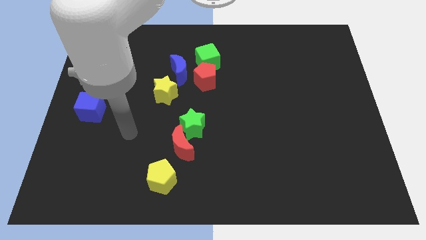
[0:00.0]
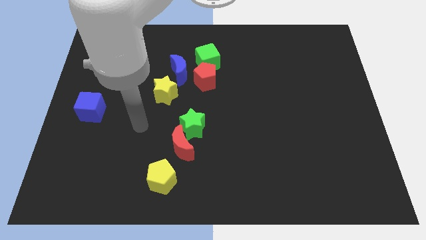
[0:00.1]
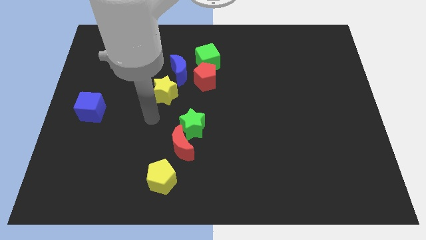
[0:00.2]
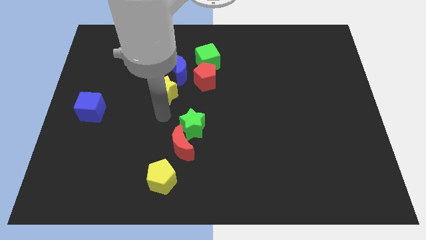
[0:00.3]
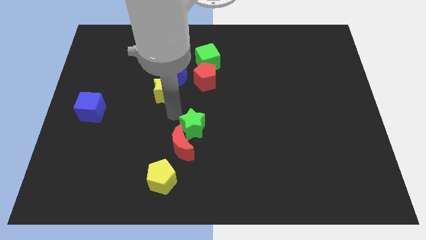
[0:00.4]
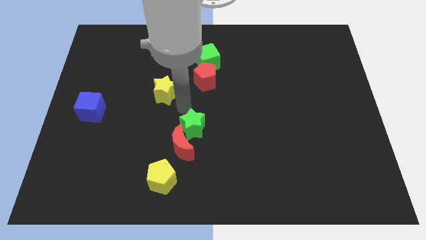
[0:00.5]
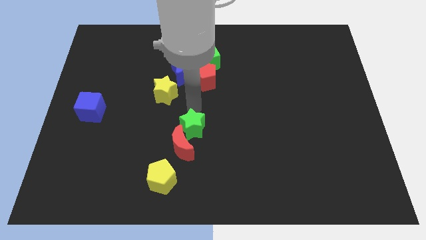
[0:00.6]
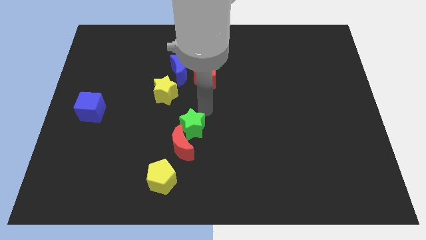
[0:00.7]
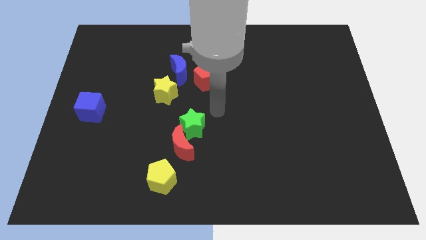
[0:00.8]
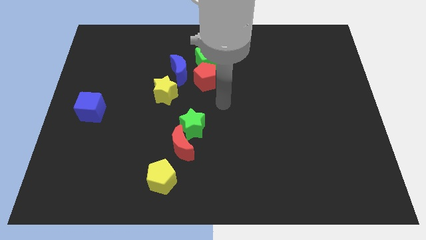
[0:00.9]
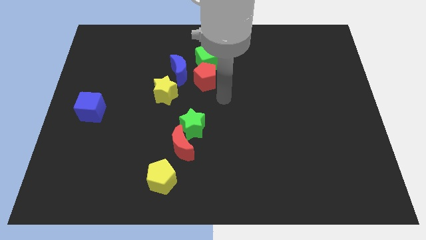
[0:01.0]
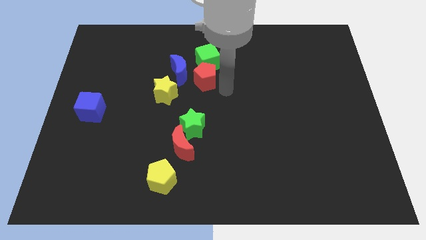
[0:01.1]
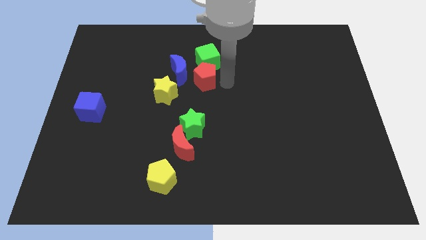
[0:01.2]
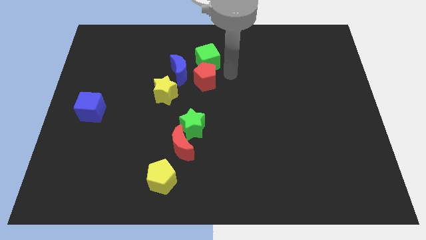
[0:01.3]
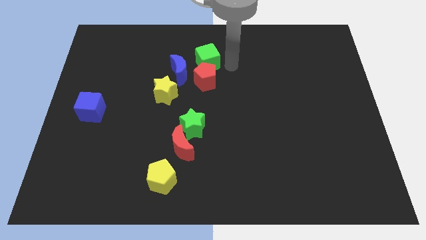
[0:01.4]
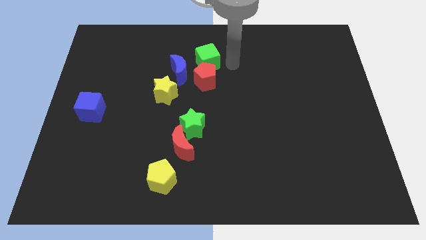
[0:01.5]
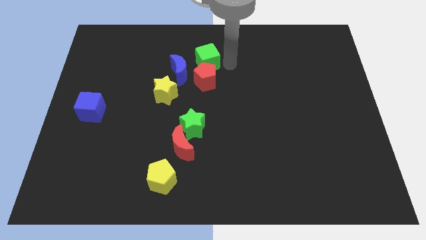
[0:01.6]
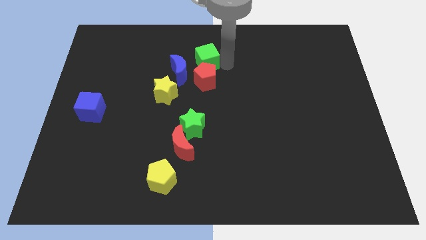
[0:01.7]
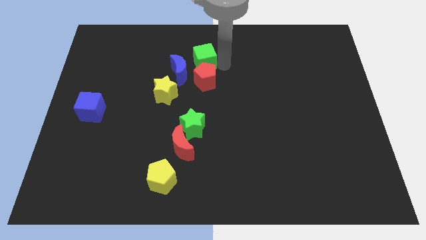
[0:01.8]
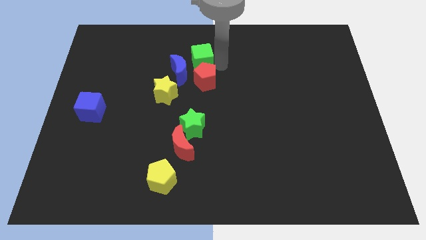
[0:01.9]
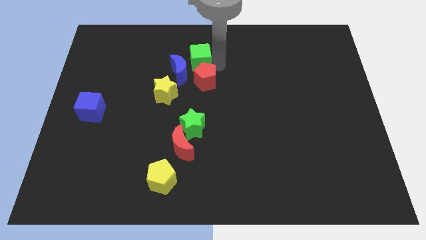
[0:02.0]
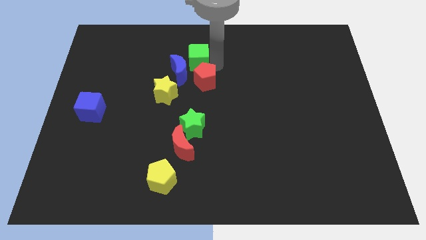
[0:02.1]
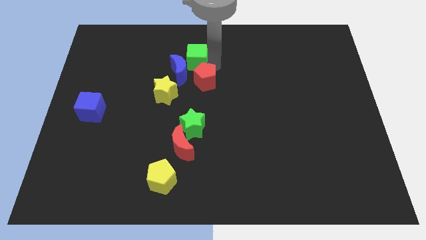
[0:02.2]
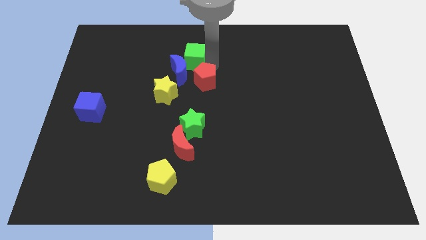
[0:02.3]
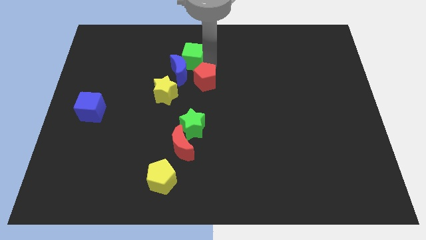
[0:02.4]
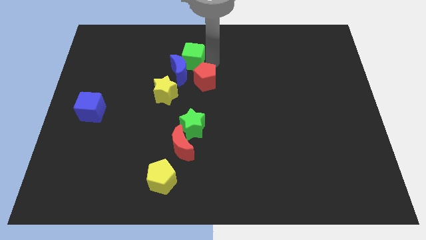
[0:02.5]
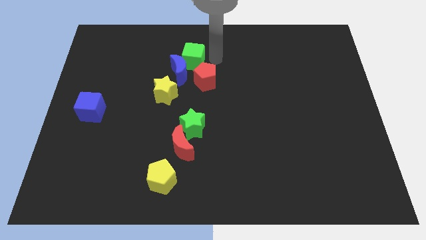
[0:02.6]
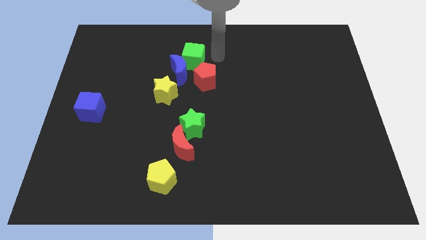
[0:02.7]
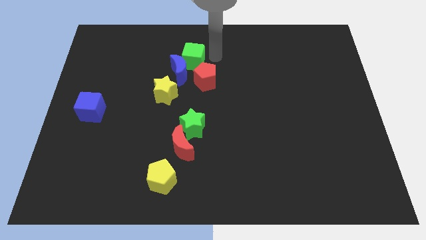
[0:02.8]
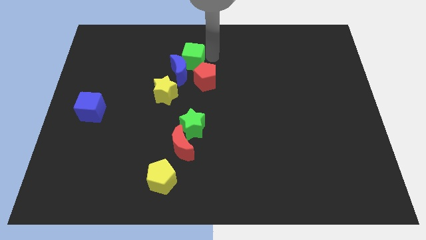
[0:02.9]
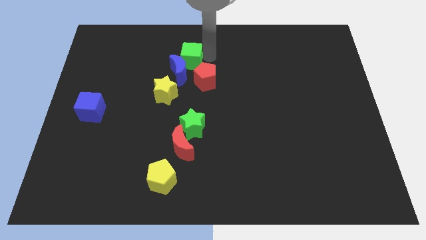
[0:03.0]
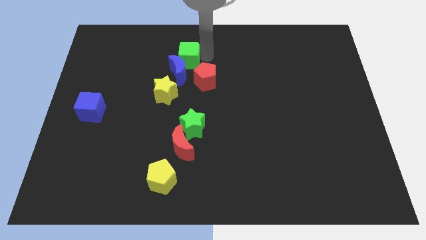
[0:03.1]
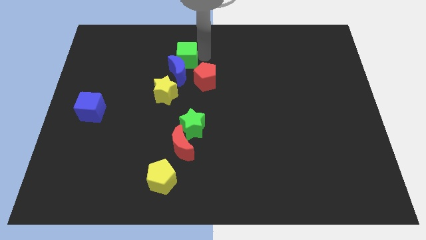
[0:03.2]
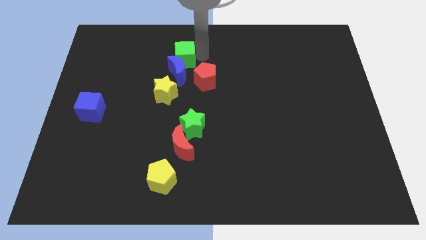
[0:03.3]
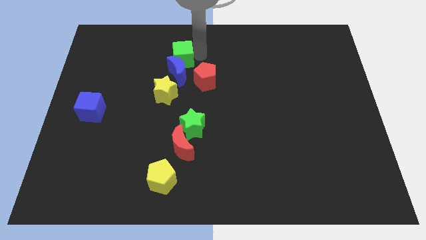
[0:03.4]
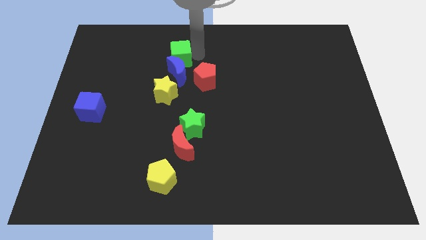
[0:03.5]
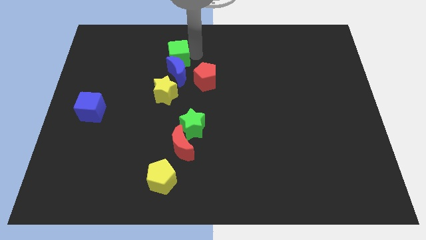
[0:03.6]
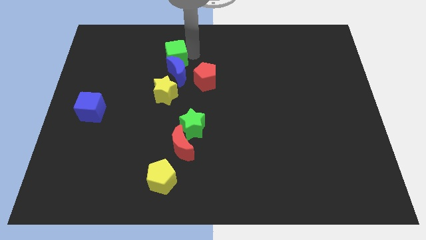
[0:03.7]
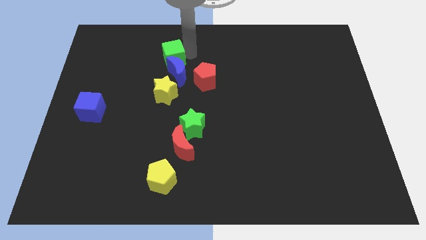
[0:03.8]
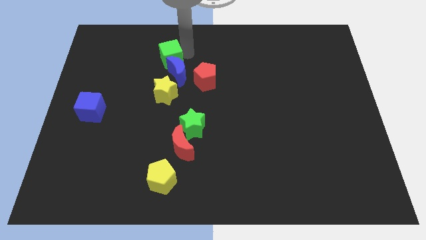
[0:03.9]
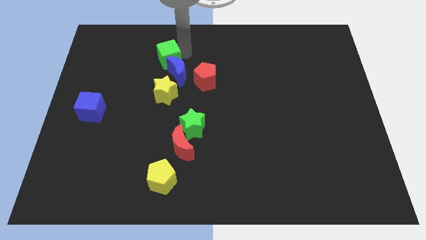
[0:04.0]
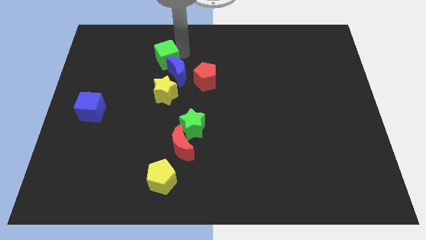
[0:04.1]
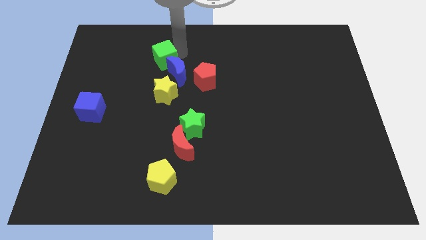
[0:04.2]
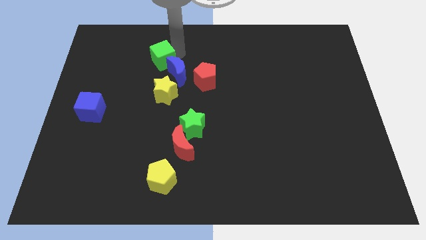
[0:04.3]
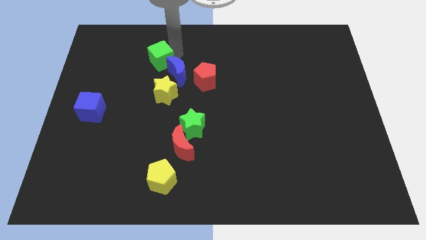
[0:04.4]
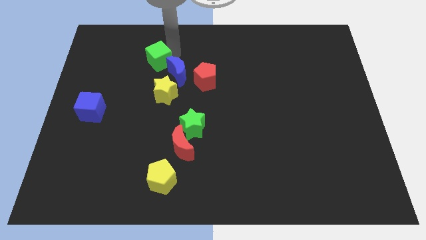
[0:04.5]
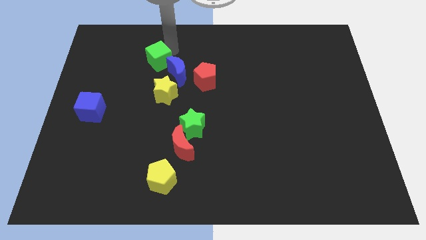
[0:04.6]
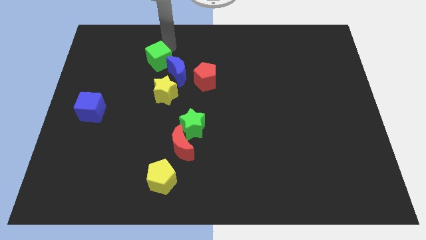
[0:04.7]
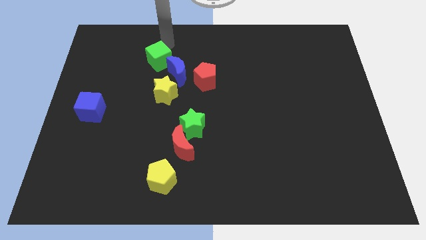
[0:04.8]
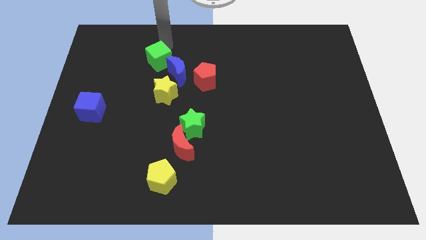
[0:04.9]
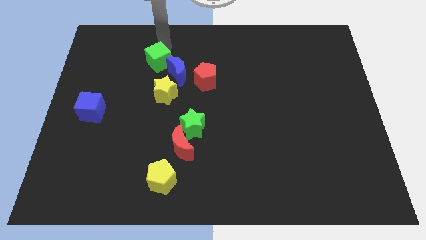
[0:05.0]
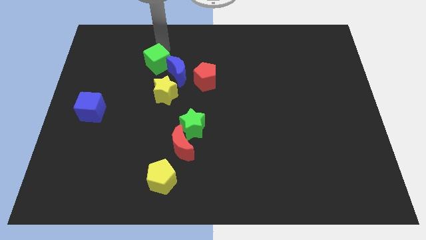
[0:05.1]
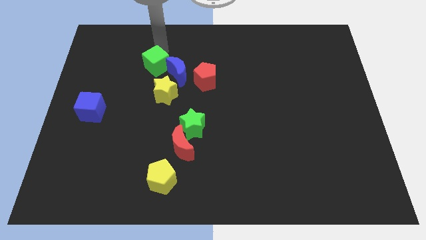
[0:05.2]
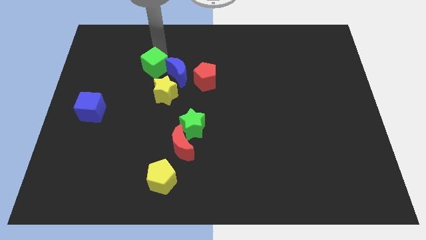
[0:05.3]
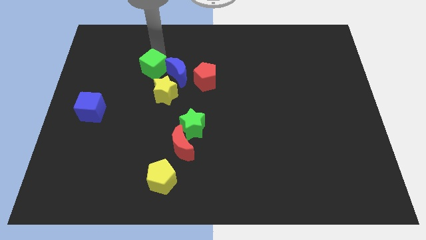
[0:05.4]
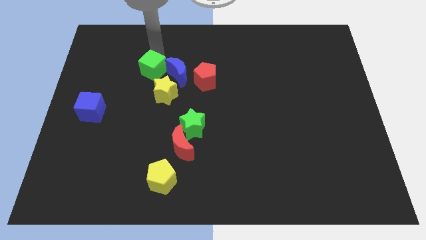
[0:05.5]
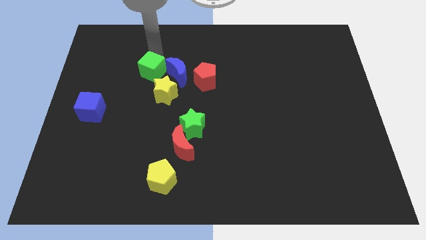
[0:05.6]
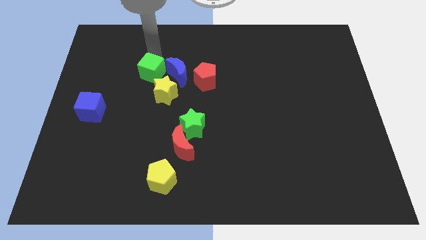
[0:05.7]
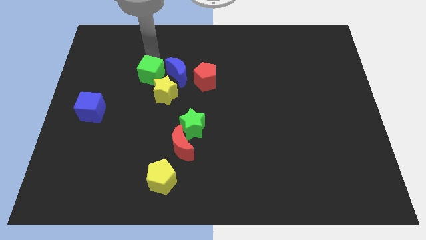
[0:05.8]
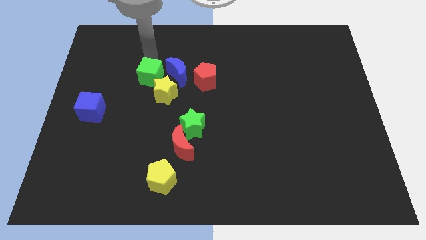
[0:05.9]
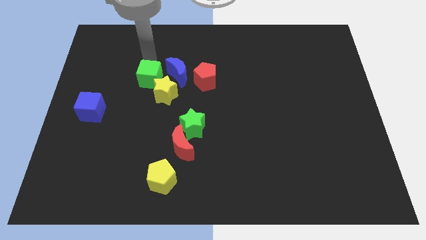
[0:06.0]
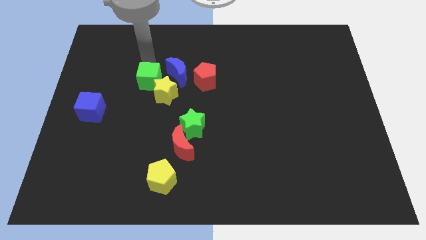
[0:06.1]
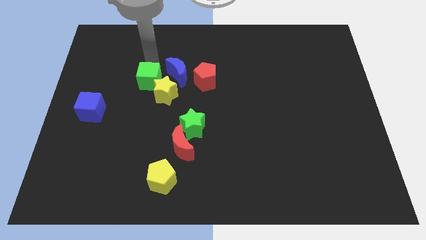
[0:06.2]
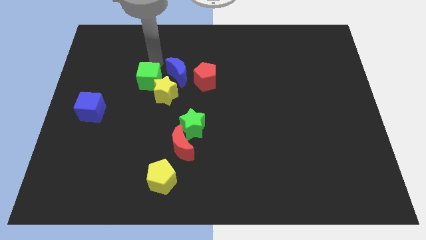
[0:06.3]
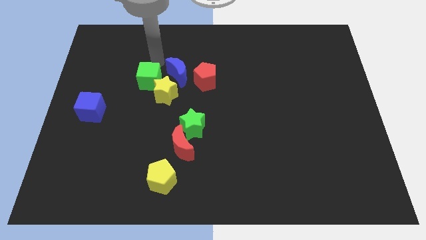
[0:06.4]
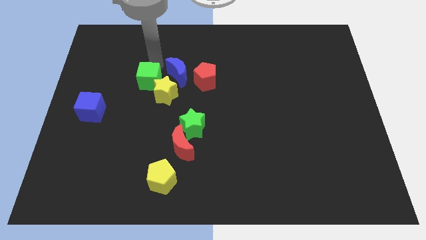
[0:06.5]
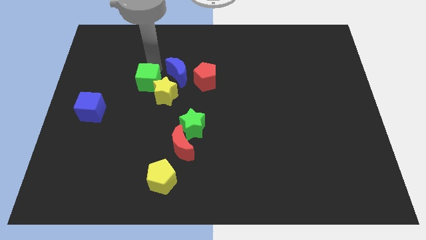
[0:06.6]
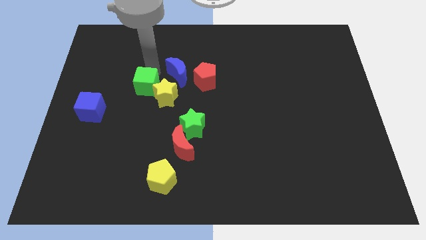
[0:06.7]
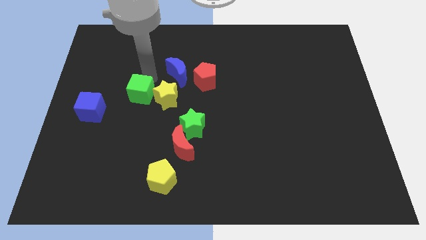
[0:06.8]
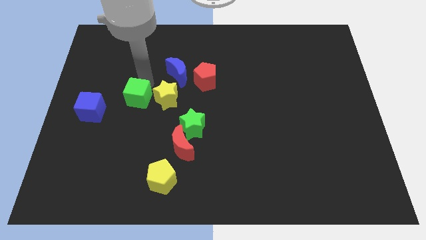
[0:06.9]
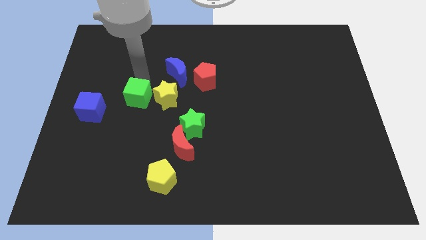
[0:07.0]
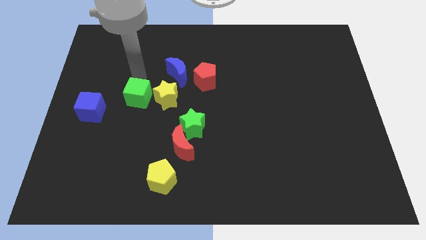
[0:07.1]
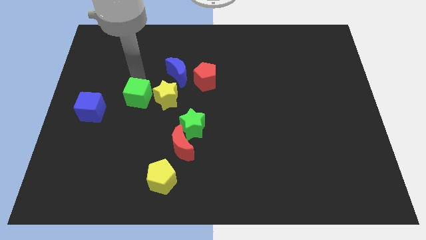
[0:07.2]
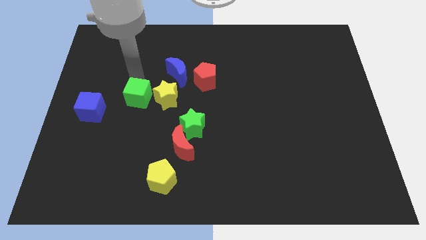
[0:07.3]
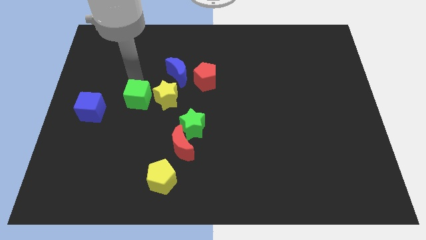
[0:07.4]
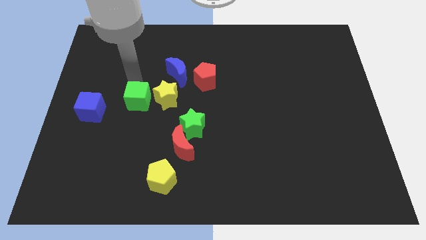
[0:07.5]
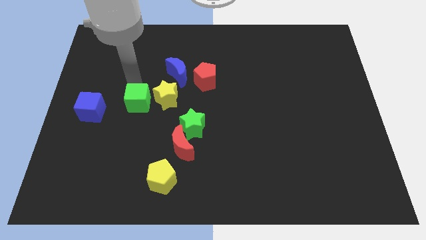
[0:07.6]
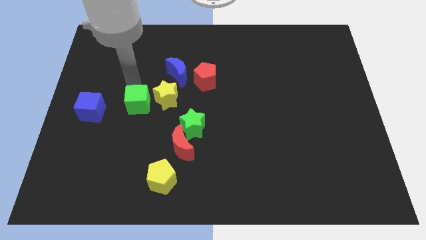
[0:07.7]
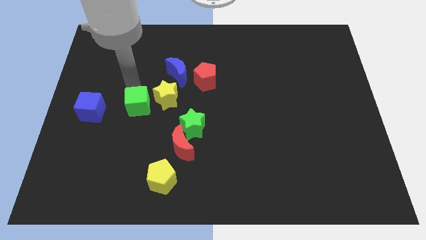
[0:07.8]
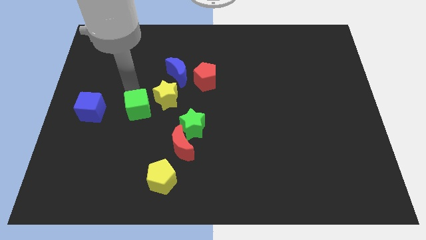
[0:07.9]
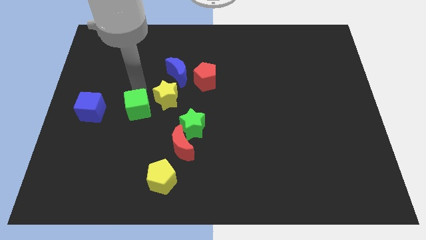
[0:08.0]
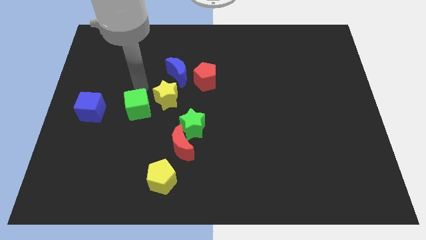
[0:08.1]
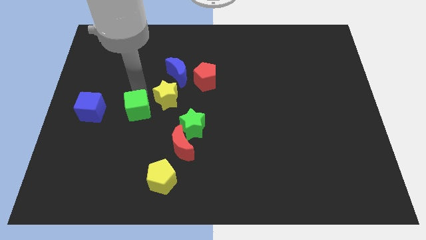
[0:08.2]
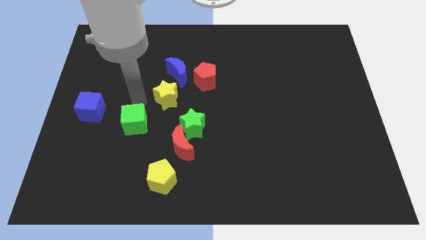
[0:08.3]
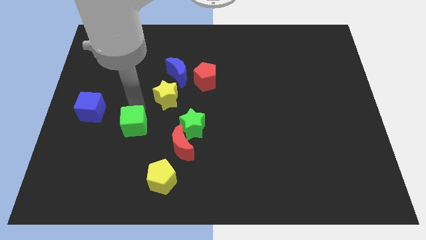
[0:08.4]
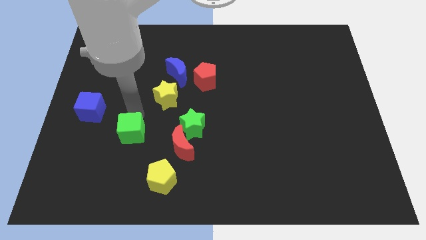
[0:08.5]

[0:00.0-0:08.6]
put the green cube to the left side of the red moon
